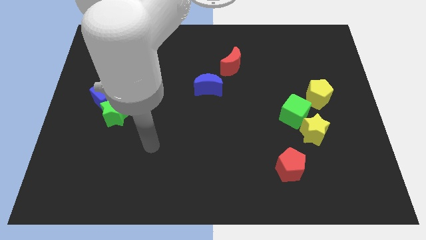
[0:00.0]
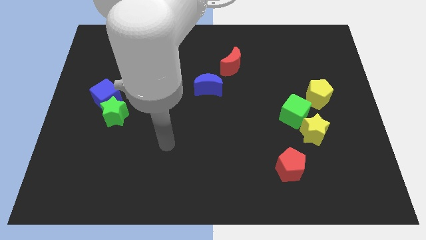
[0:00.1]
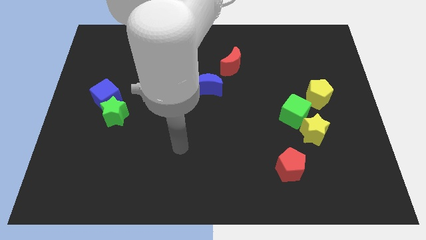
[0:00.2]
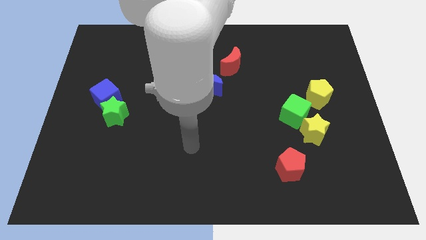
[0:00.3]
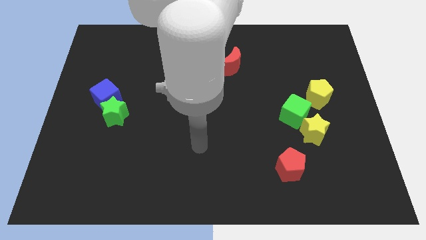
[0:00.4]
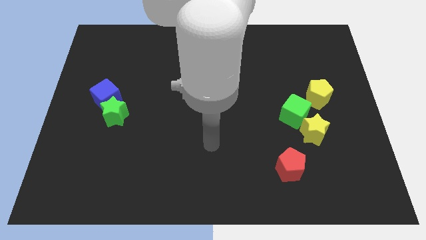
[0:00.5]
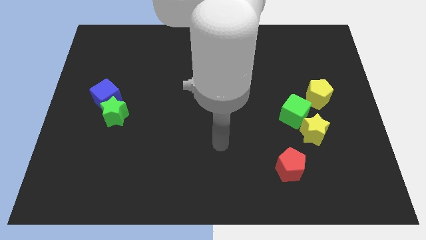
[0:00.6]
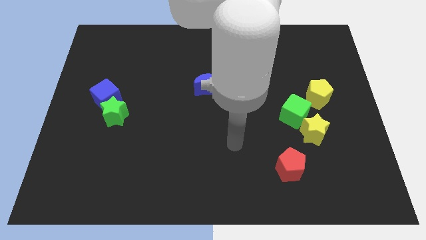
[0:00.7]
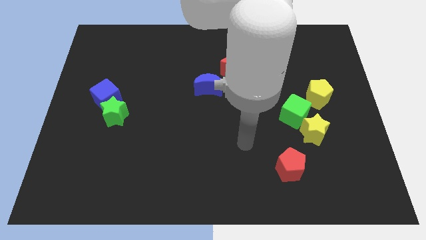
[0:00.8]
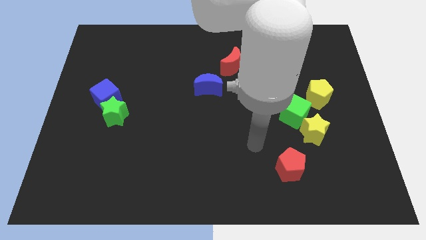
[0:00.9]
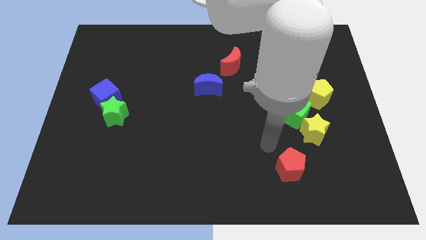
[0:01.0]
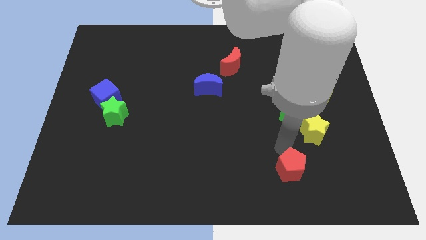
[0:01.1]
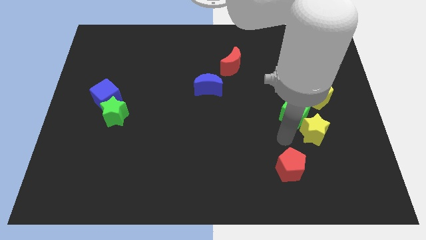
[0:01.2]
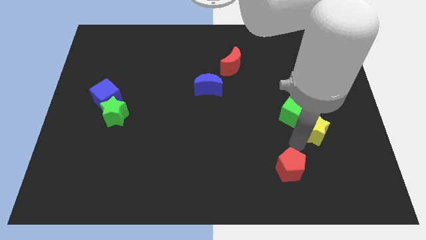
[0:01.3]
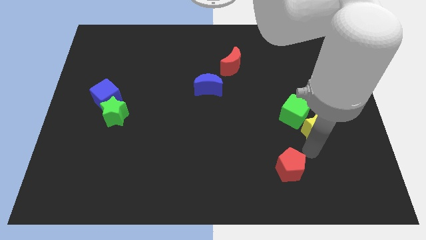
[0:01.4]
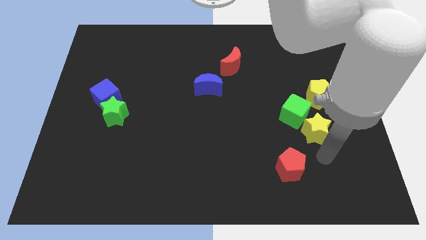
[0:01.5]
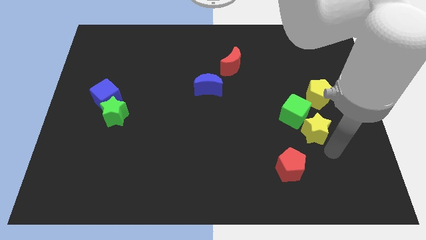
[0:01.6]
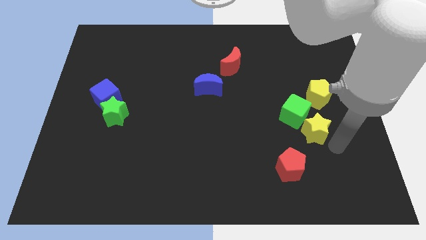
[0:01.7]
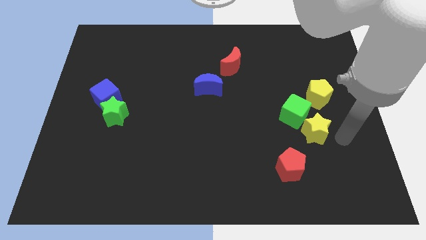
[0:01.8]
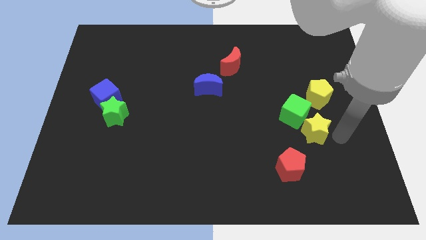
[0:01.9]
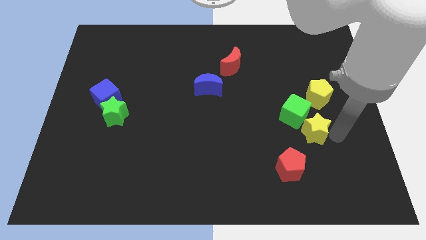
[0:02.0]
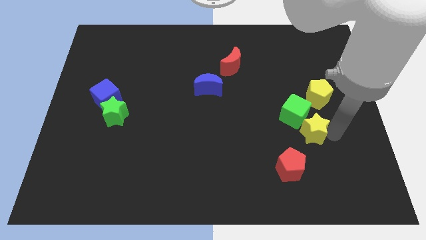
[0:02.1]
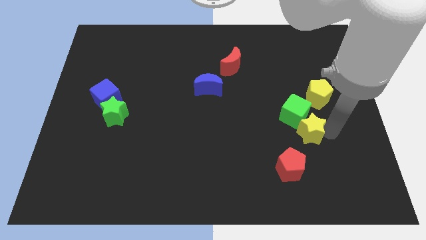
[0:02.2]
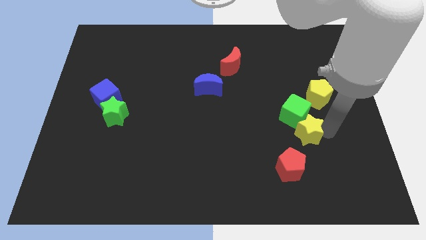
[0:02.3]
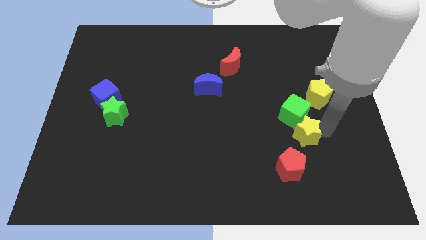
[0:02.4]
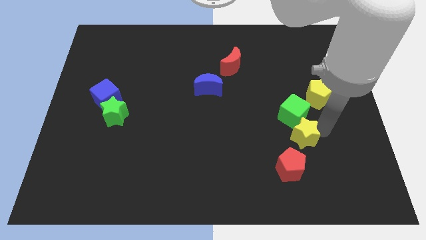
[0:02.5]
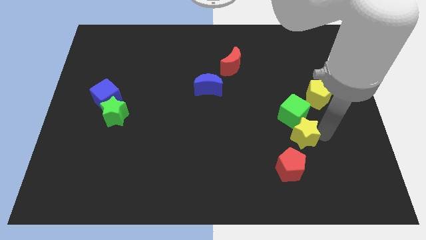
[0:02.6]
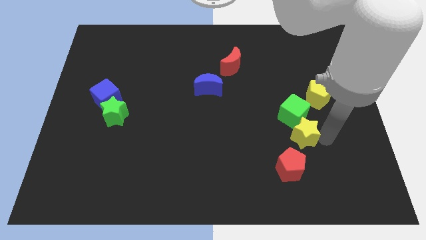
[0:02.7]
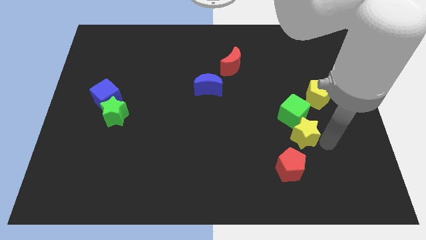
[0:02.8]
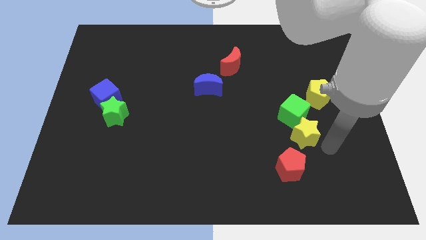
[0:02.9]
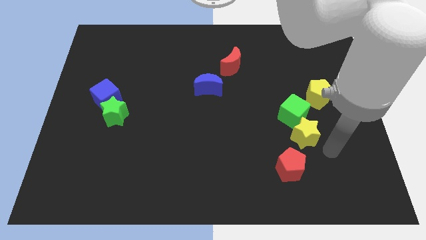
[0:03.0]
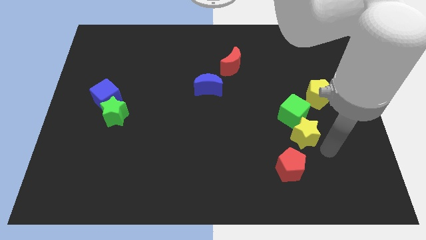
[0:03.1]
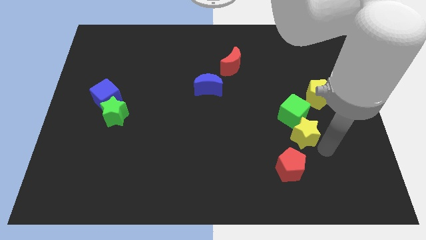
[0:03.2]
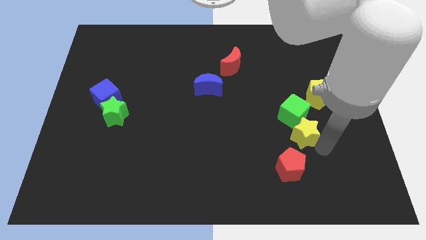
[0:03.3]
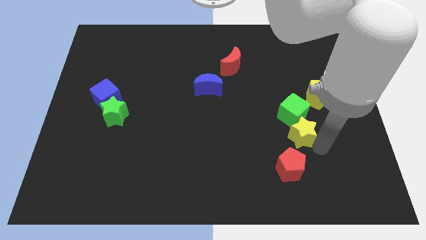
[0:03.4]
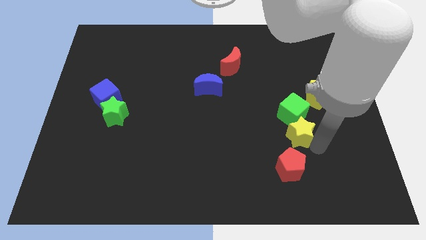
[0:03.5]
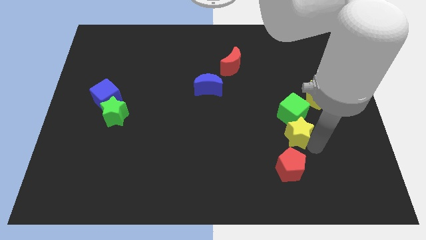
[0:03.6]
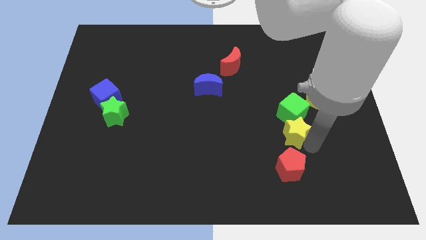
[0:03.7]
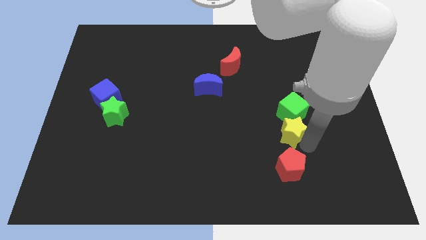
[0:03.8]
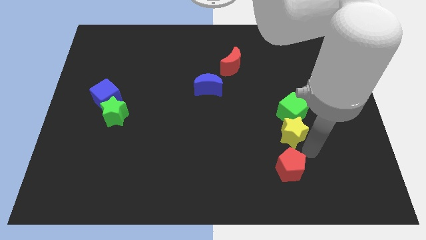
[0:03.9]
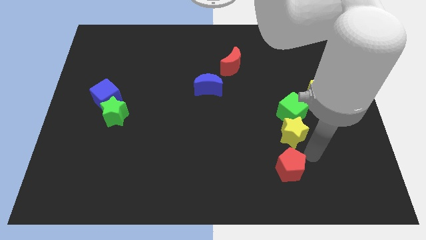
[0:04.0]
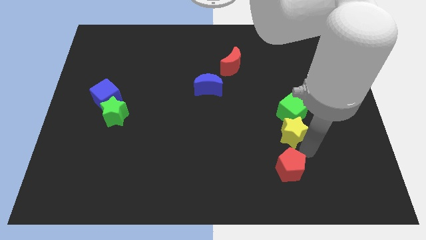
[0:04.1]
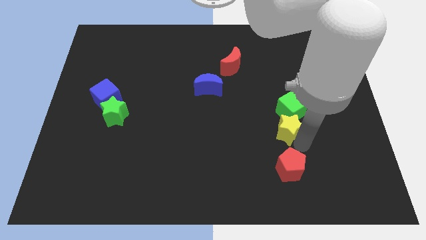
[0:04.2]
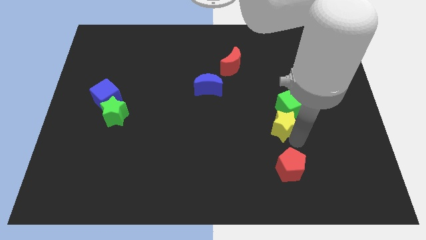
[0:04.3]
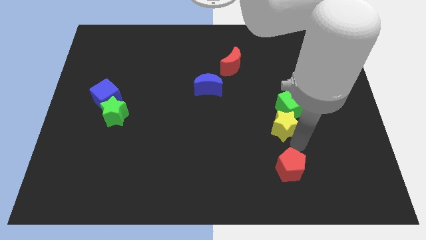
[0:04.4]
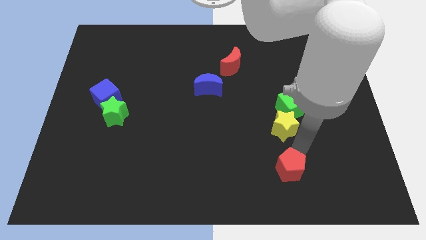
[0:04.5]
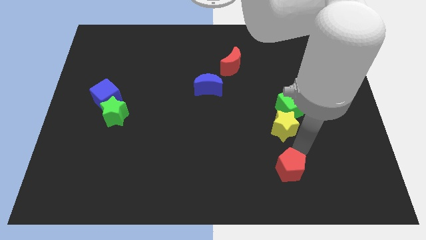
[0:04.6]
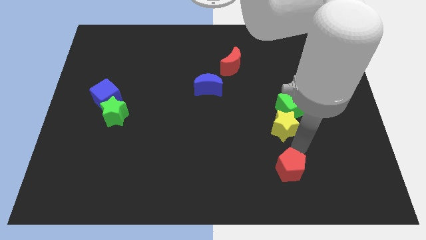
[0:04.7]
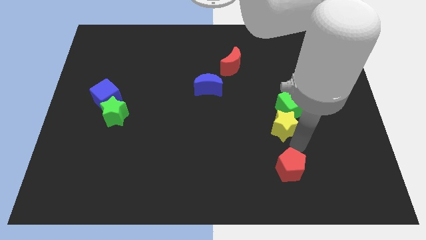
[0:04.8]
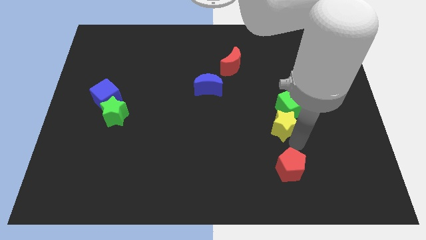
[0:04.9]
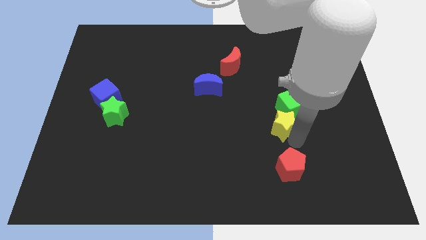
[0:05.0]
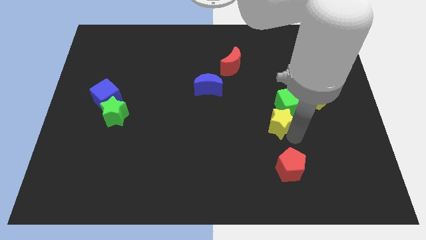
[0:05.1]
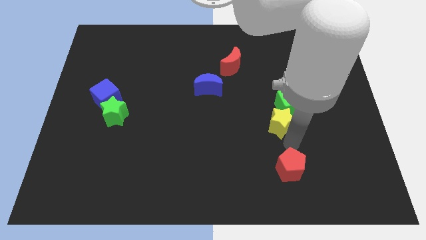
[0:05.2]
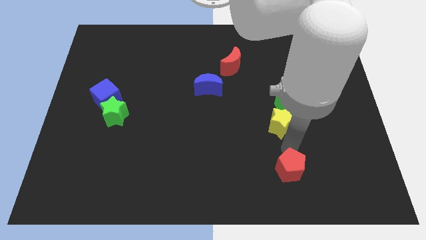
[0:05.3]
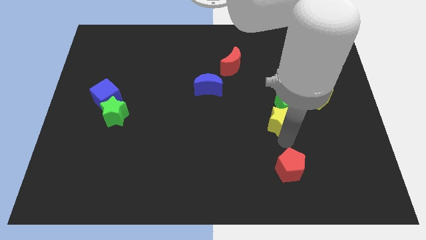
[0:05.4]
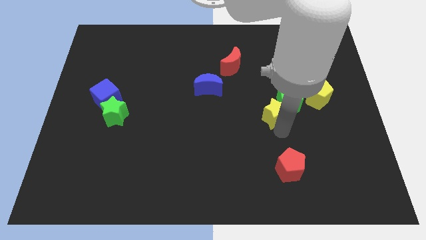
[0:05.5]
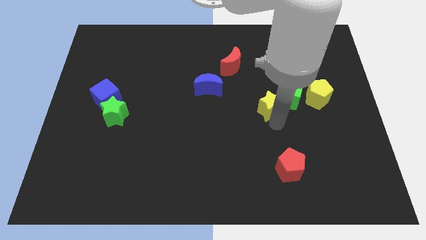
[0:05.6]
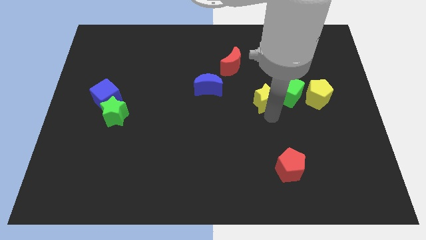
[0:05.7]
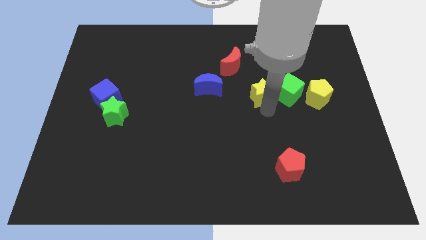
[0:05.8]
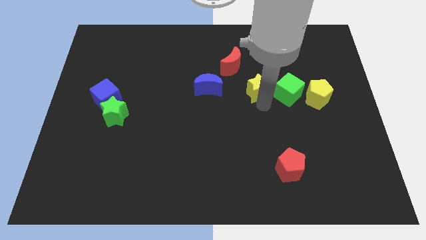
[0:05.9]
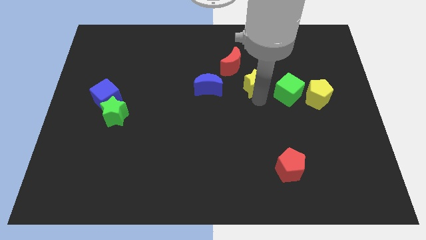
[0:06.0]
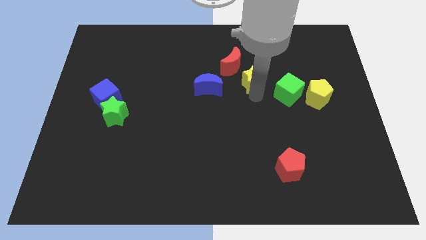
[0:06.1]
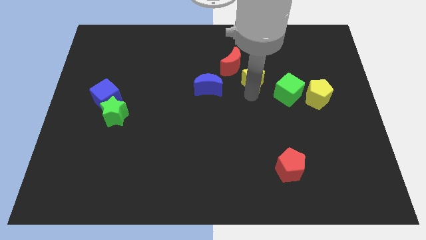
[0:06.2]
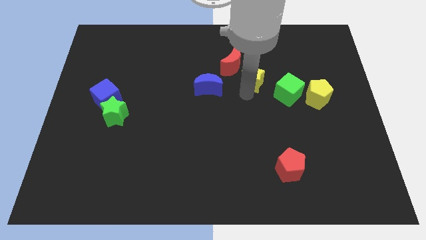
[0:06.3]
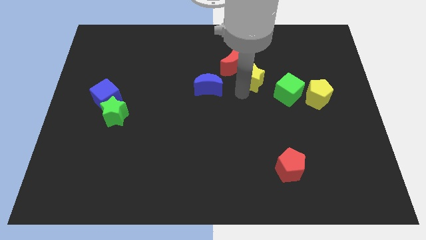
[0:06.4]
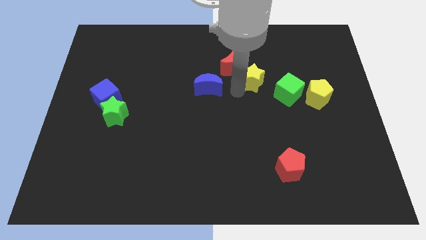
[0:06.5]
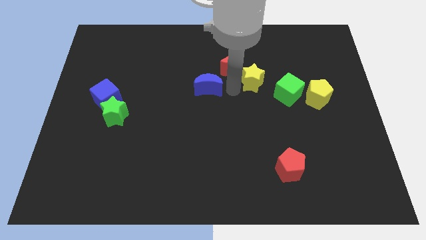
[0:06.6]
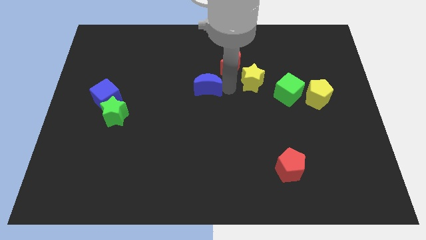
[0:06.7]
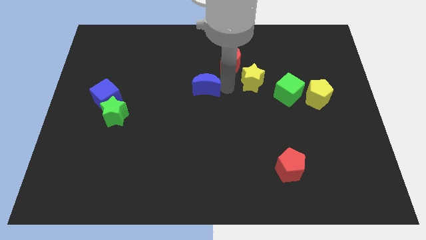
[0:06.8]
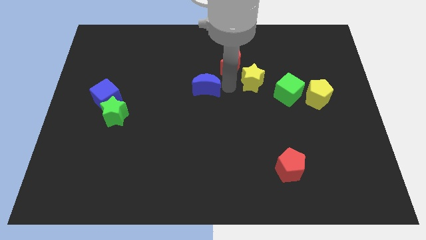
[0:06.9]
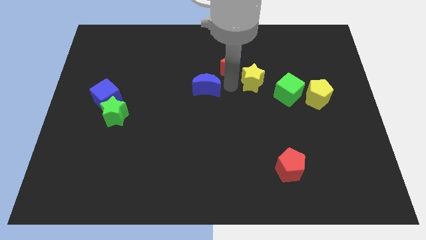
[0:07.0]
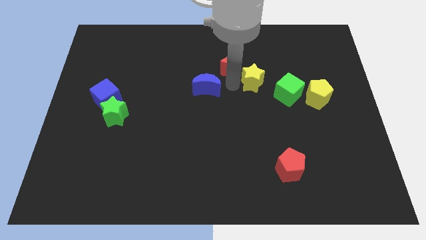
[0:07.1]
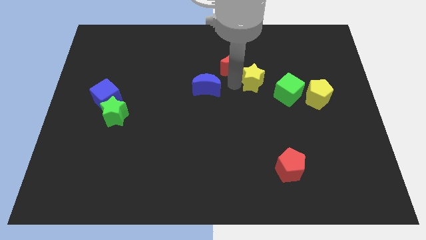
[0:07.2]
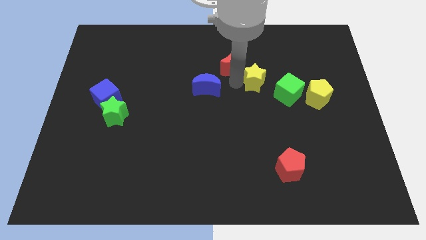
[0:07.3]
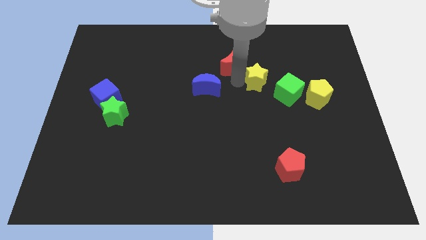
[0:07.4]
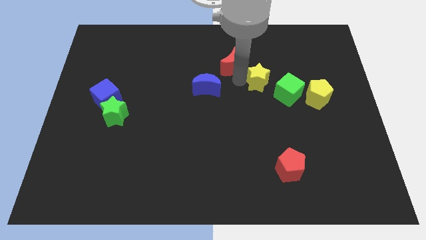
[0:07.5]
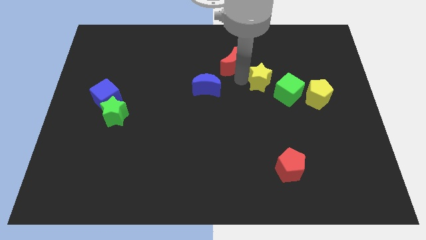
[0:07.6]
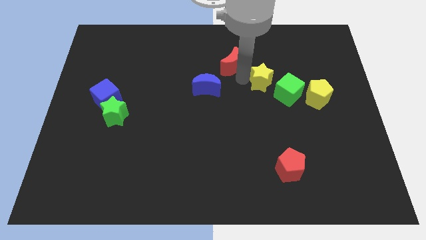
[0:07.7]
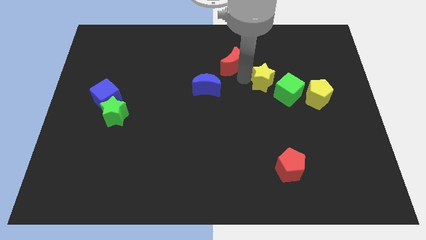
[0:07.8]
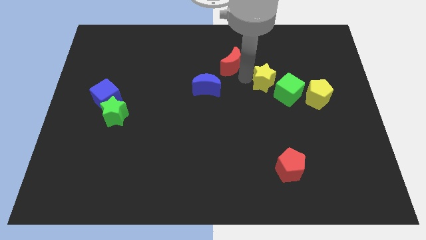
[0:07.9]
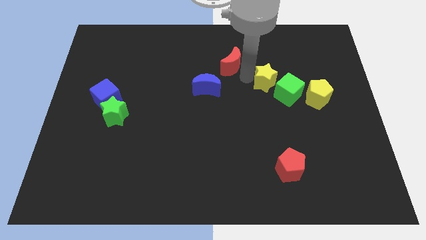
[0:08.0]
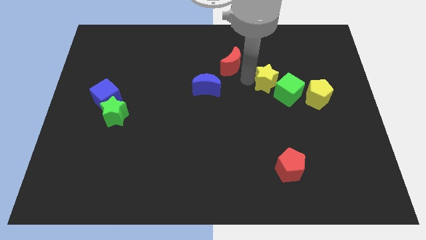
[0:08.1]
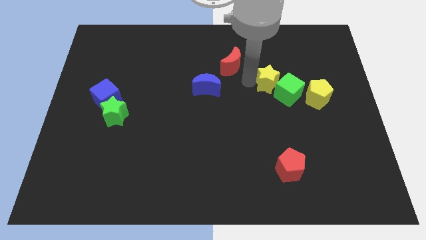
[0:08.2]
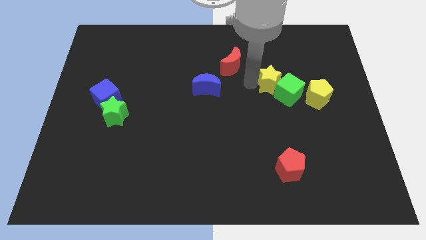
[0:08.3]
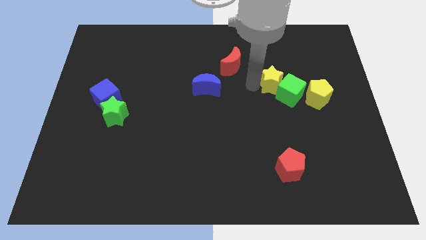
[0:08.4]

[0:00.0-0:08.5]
push the yellow star to the top left side of the green cube
